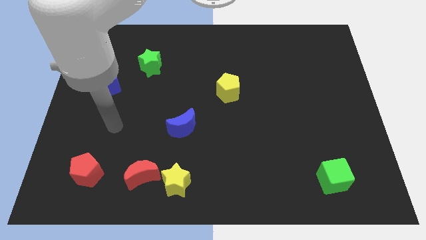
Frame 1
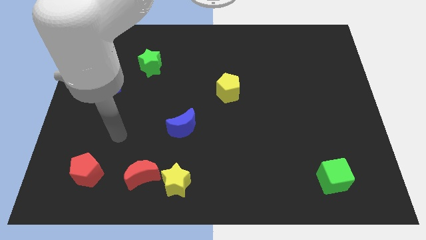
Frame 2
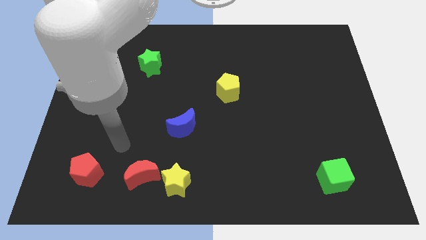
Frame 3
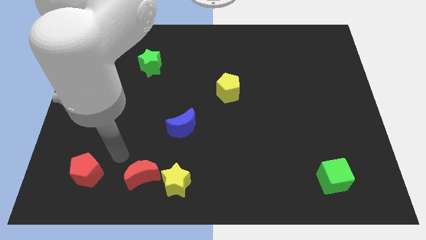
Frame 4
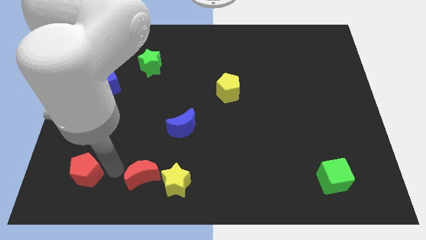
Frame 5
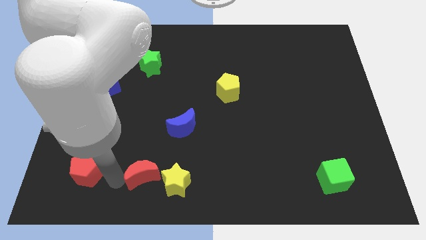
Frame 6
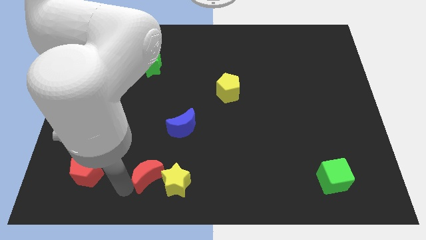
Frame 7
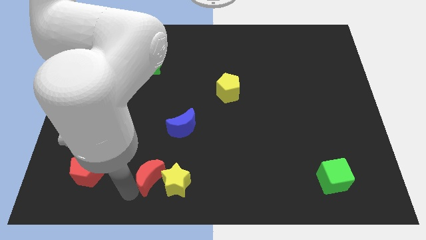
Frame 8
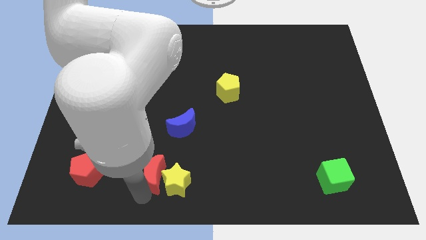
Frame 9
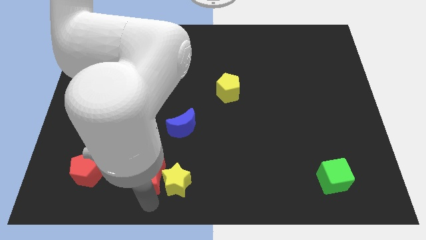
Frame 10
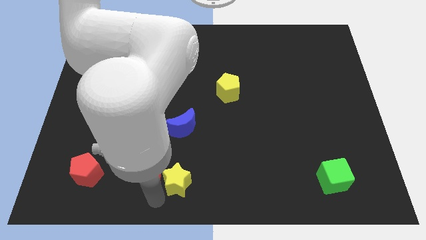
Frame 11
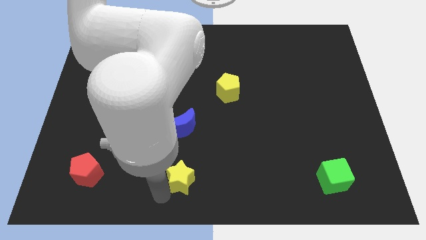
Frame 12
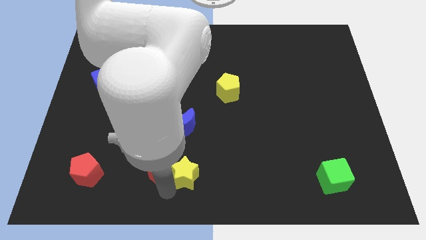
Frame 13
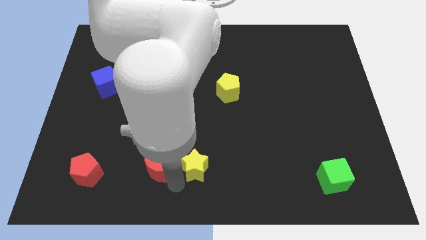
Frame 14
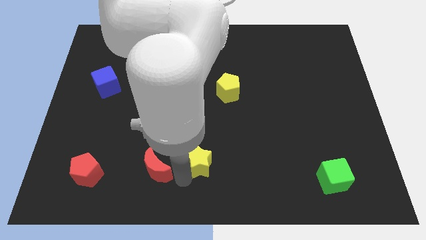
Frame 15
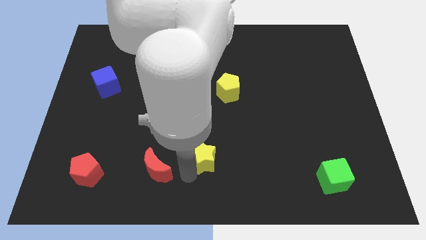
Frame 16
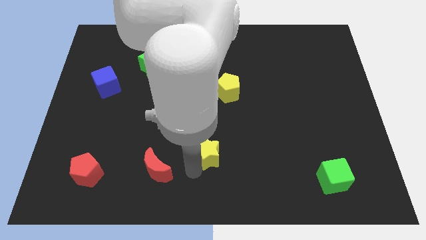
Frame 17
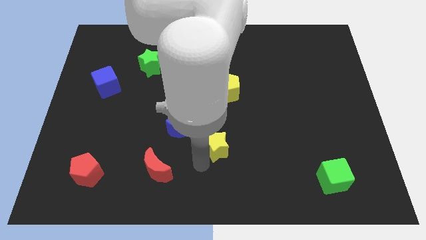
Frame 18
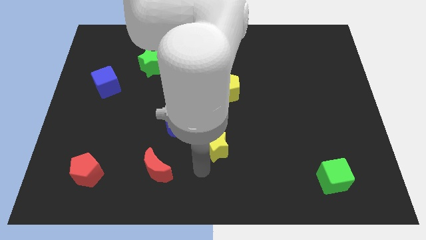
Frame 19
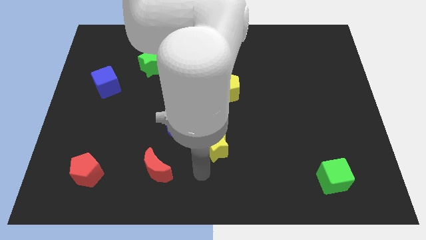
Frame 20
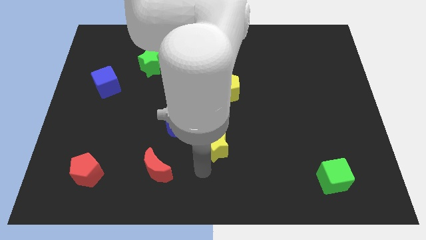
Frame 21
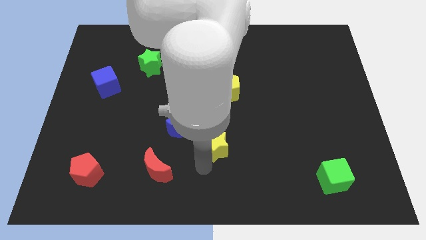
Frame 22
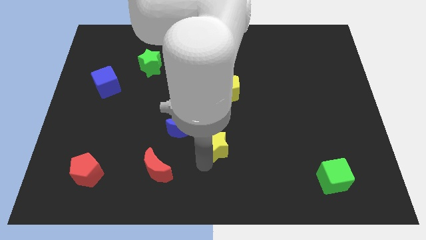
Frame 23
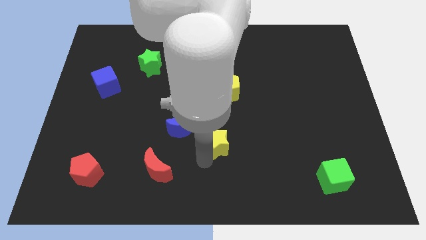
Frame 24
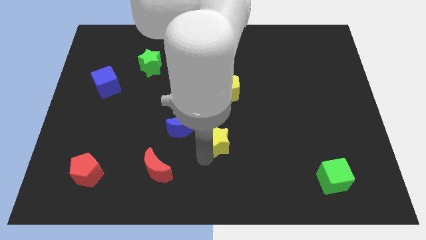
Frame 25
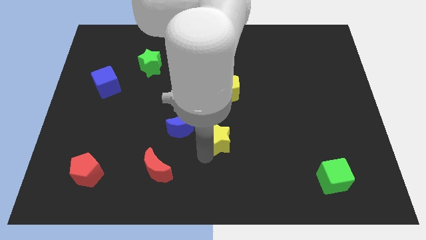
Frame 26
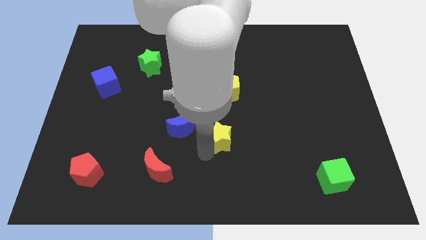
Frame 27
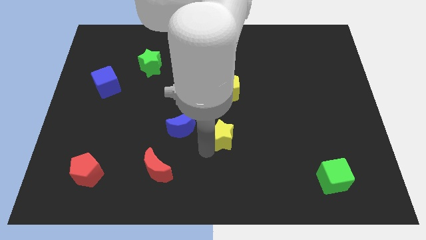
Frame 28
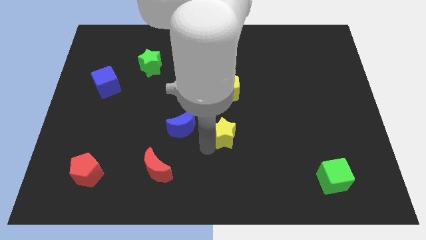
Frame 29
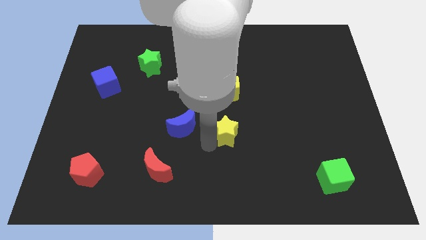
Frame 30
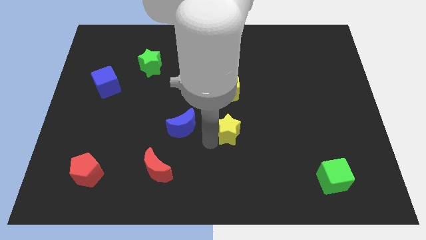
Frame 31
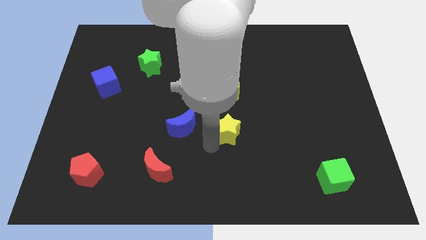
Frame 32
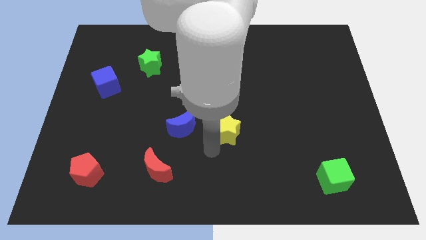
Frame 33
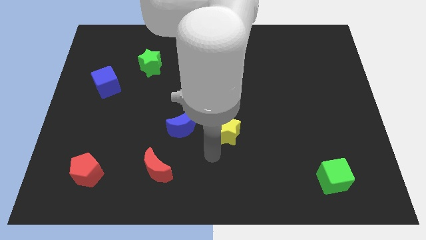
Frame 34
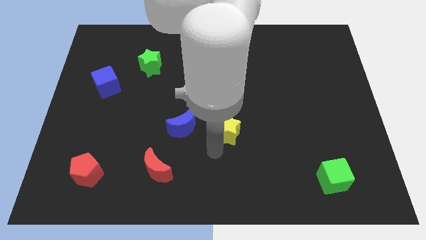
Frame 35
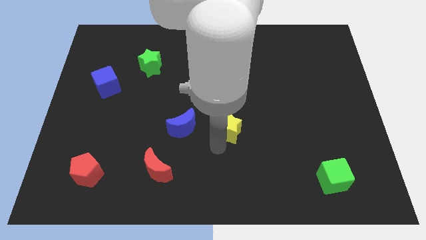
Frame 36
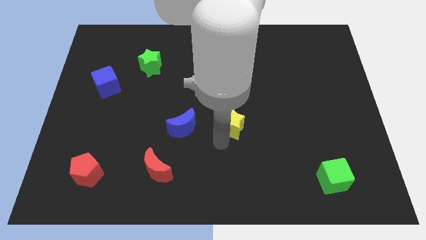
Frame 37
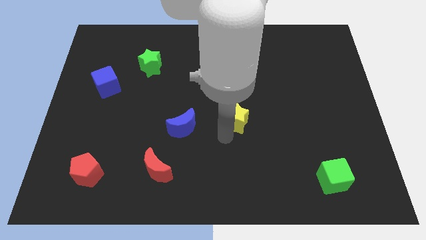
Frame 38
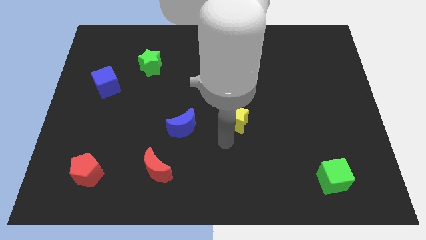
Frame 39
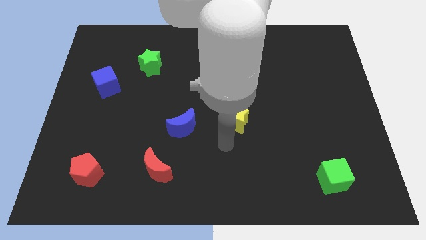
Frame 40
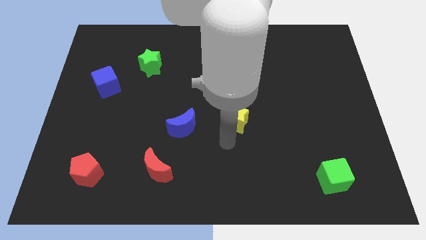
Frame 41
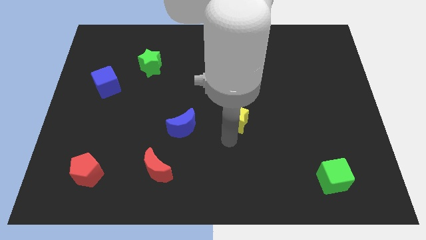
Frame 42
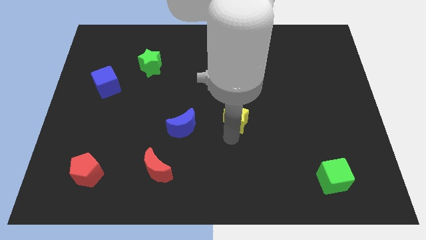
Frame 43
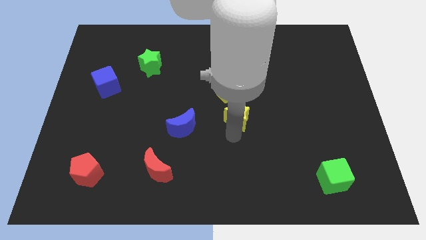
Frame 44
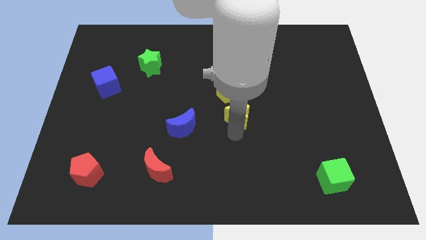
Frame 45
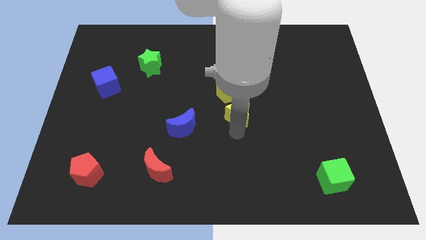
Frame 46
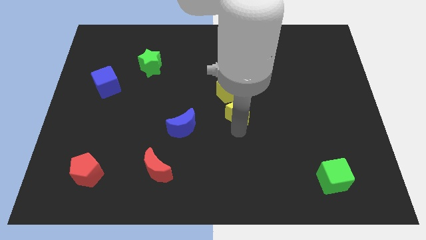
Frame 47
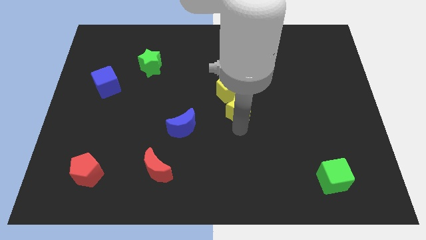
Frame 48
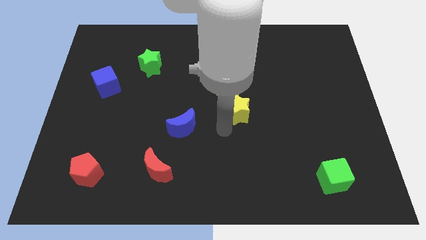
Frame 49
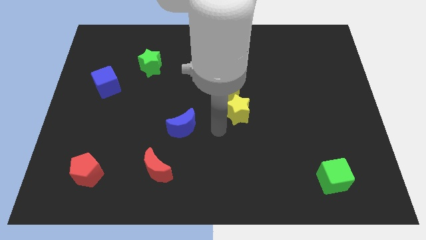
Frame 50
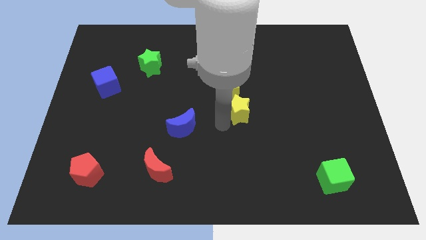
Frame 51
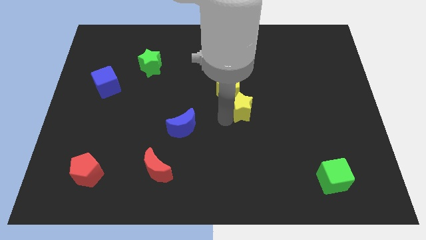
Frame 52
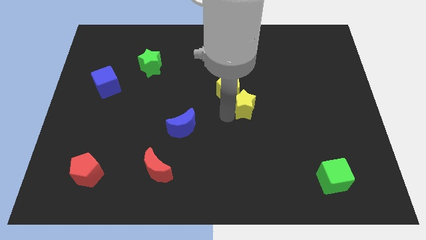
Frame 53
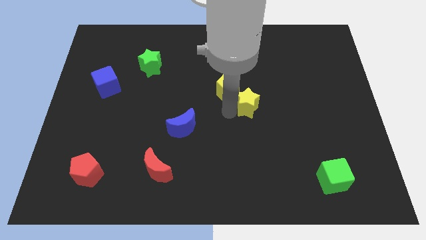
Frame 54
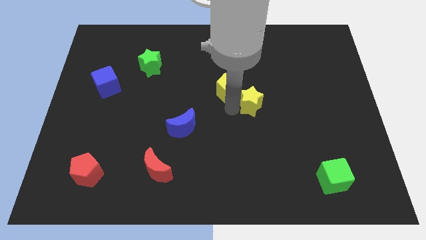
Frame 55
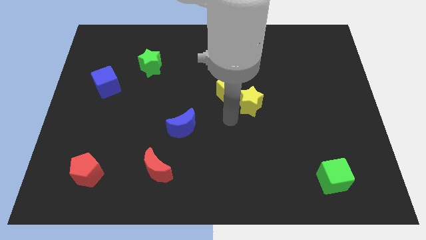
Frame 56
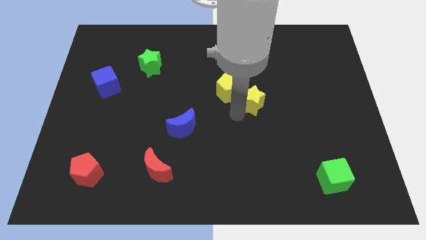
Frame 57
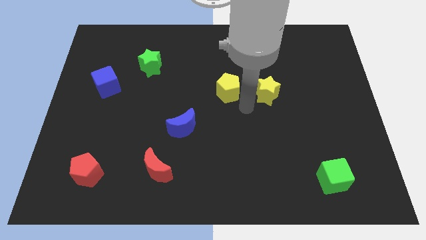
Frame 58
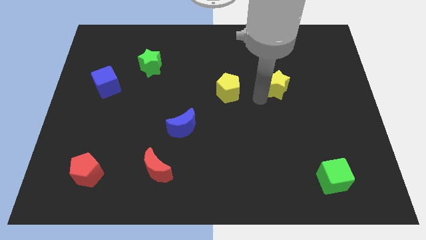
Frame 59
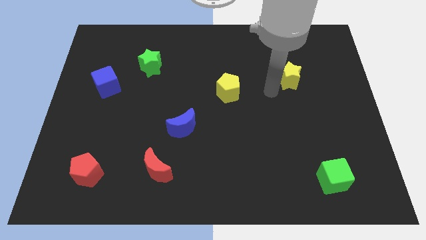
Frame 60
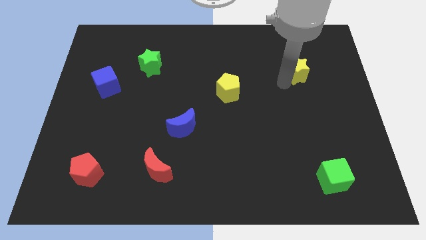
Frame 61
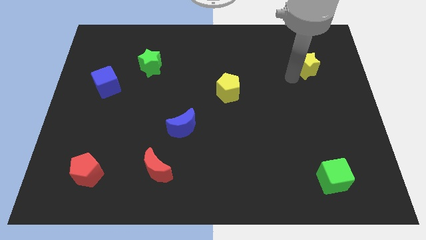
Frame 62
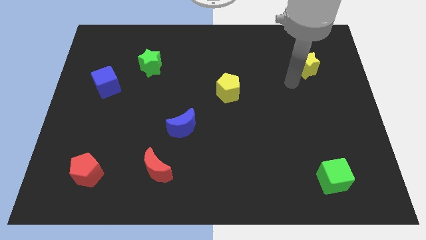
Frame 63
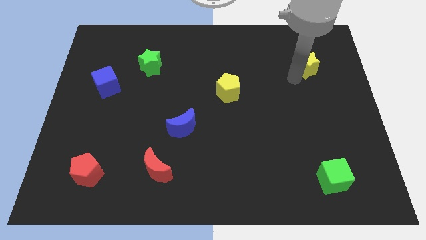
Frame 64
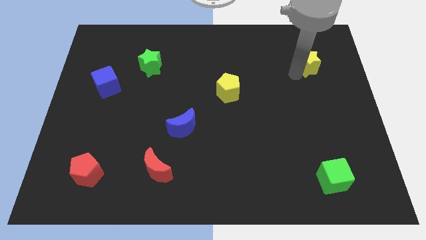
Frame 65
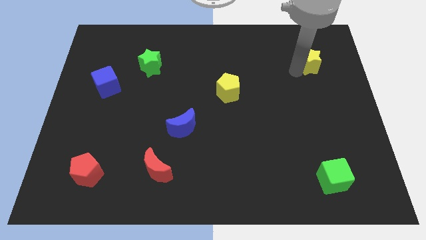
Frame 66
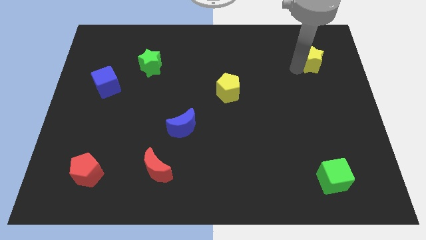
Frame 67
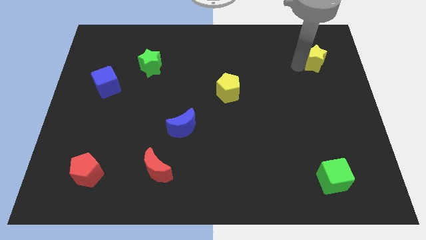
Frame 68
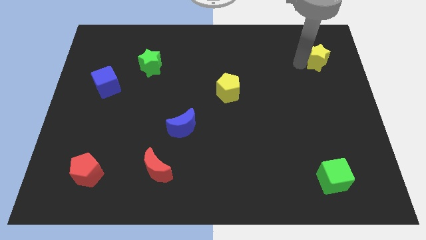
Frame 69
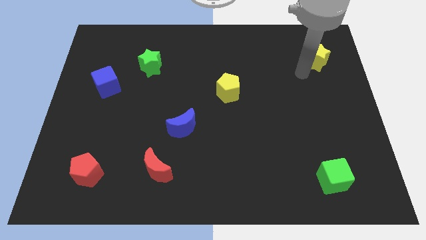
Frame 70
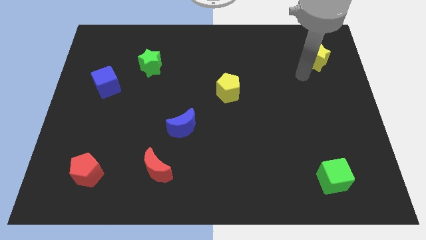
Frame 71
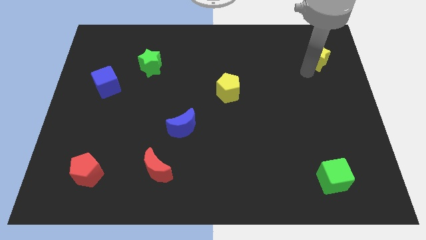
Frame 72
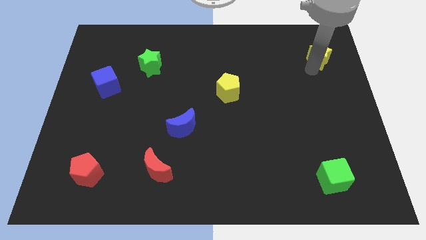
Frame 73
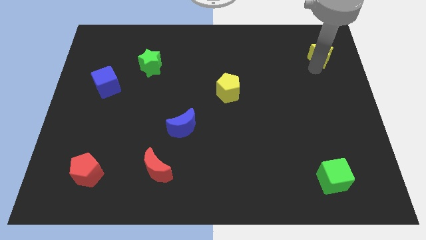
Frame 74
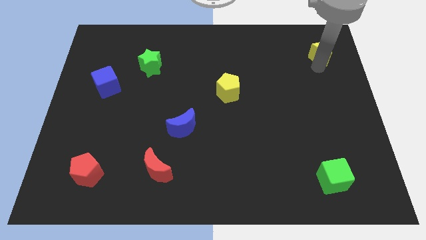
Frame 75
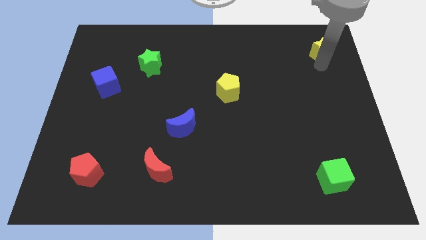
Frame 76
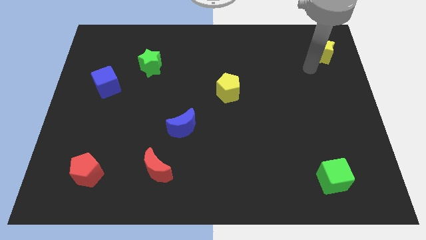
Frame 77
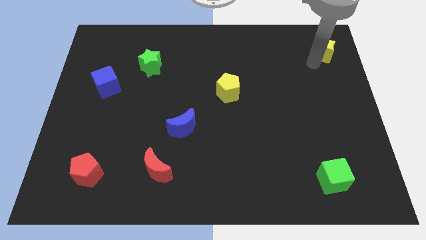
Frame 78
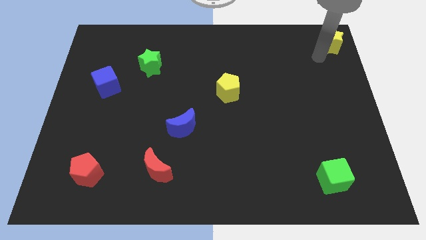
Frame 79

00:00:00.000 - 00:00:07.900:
move the yellow star to the top right

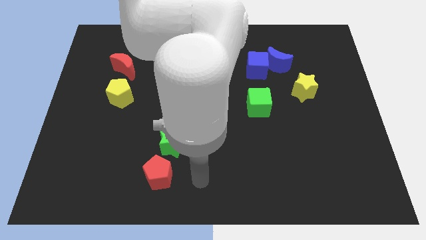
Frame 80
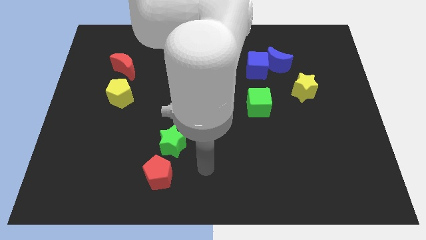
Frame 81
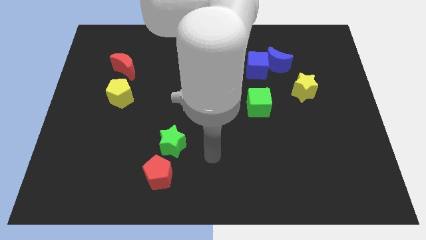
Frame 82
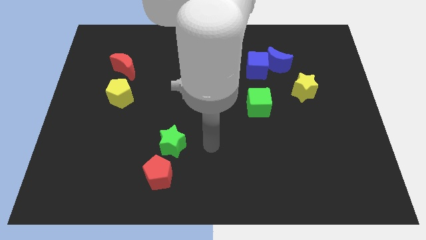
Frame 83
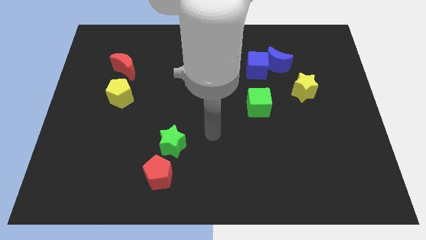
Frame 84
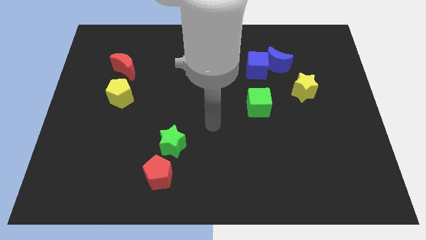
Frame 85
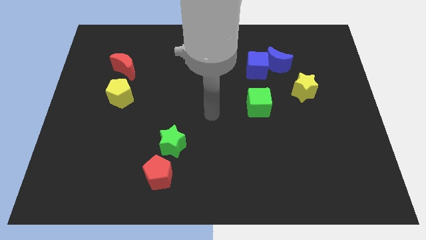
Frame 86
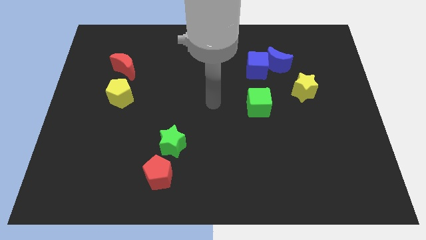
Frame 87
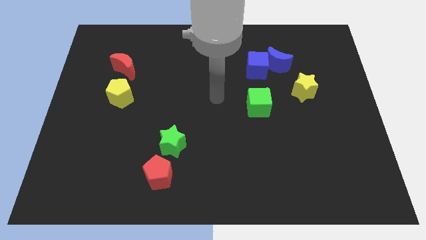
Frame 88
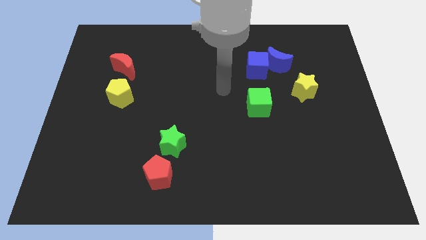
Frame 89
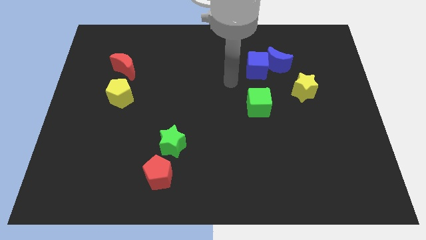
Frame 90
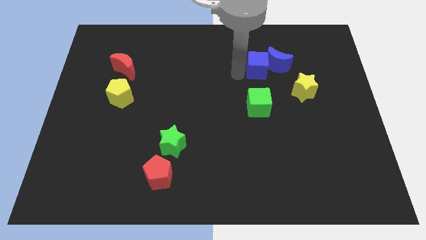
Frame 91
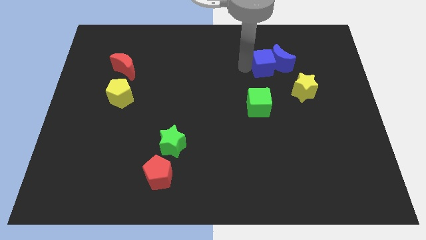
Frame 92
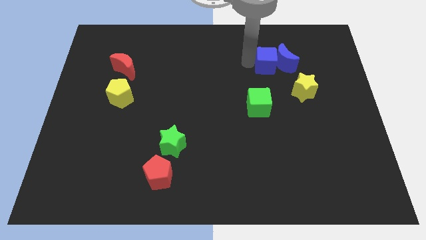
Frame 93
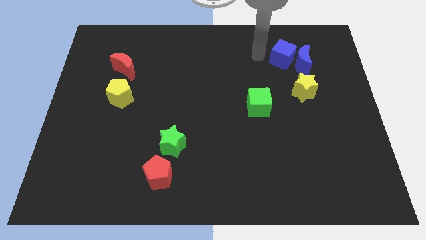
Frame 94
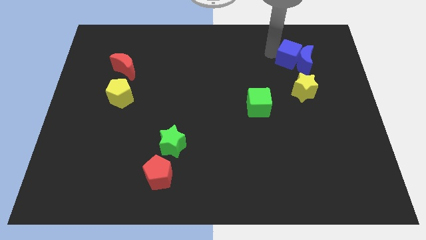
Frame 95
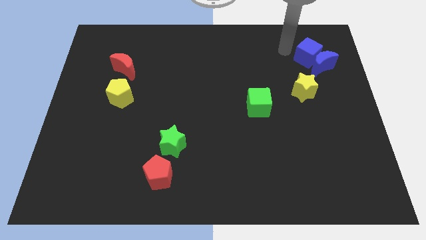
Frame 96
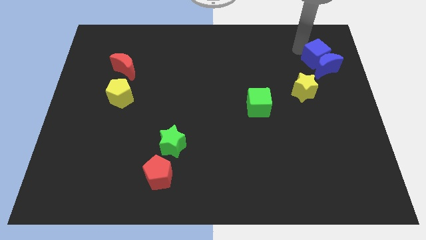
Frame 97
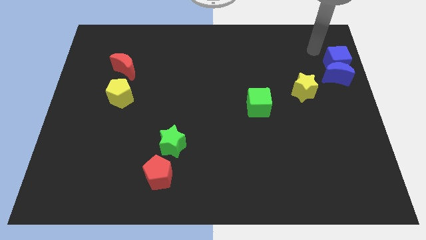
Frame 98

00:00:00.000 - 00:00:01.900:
put the blue moon to the center right
